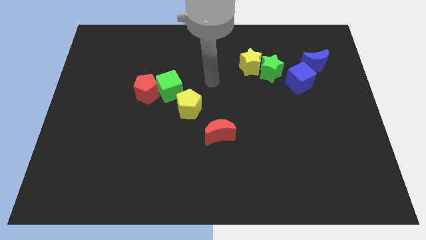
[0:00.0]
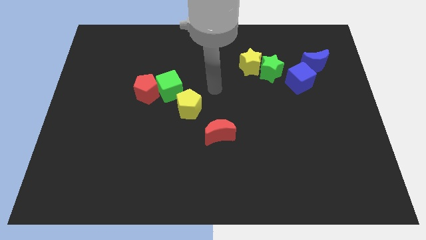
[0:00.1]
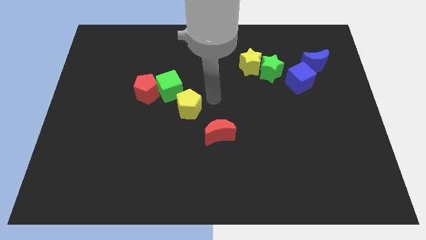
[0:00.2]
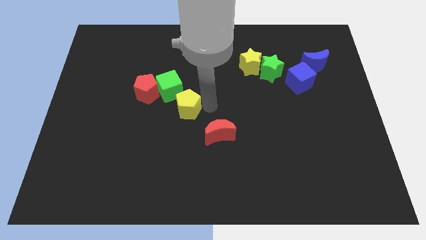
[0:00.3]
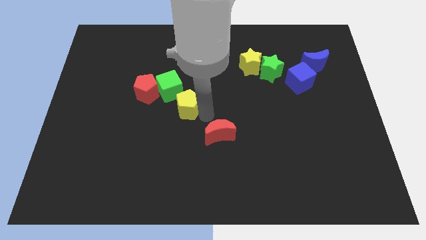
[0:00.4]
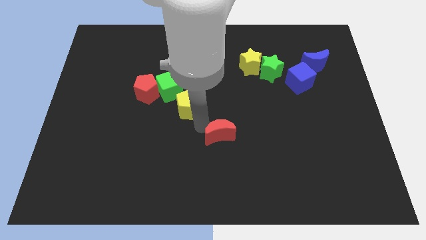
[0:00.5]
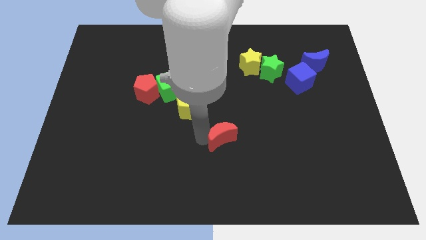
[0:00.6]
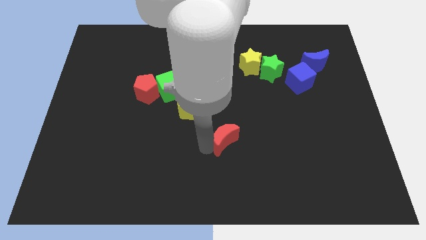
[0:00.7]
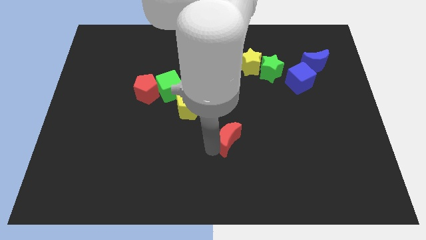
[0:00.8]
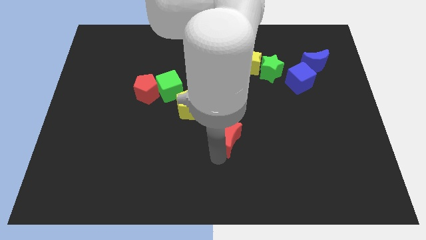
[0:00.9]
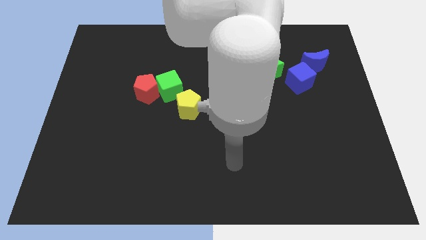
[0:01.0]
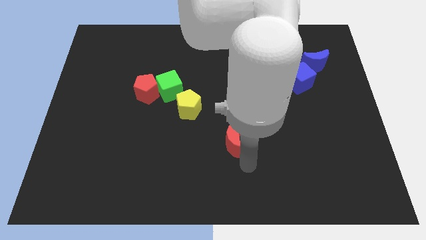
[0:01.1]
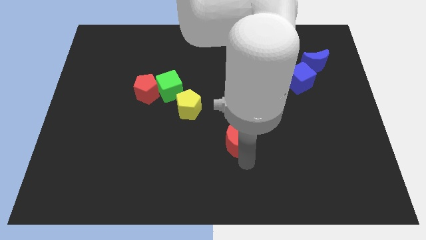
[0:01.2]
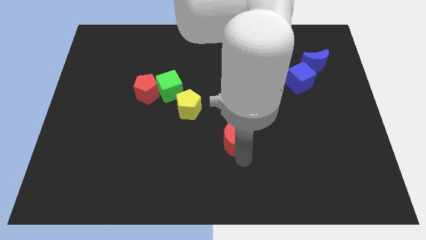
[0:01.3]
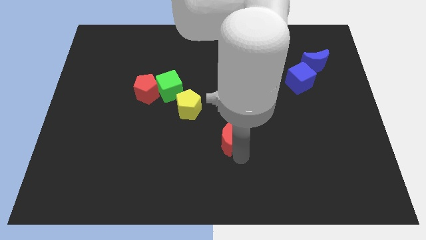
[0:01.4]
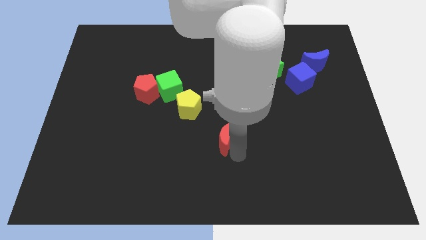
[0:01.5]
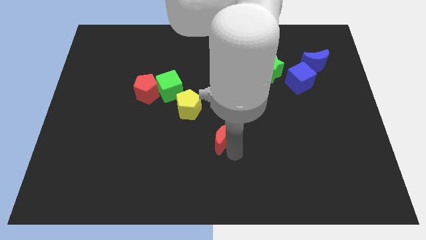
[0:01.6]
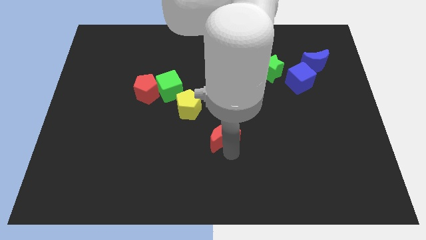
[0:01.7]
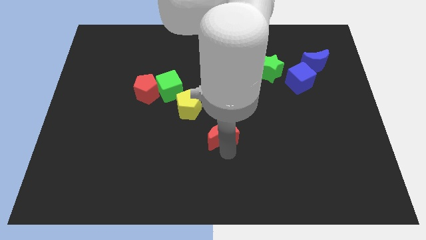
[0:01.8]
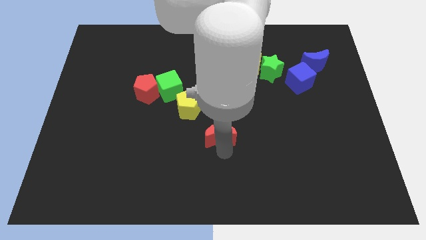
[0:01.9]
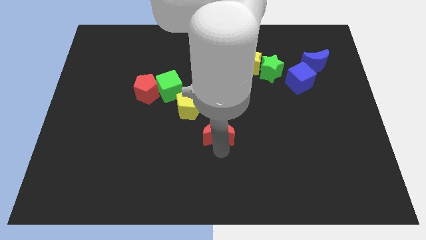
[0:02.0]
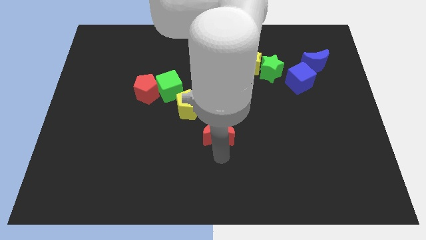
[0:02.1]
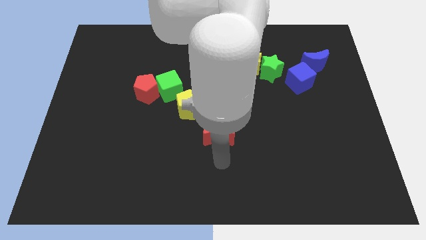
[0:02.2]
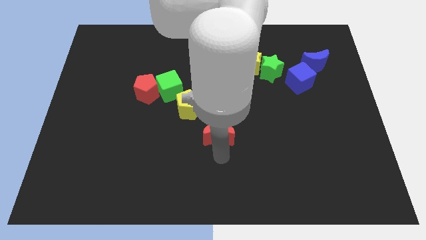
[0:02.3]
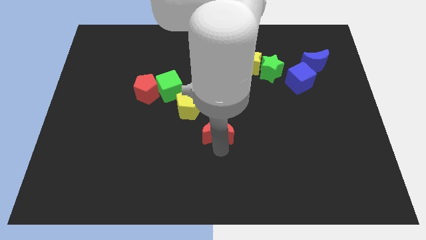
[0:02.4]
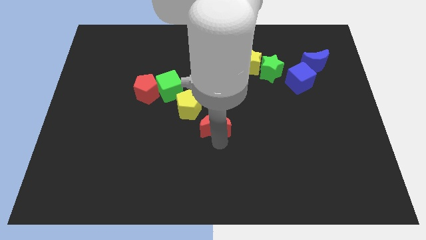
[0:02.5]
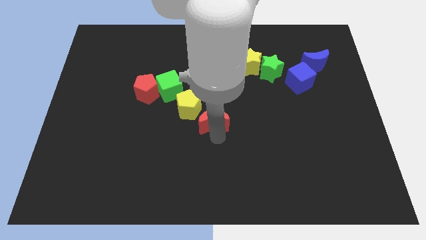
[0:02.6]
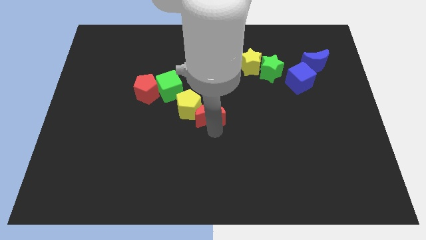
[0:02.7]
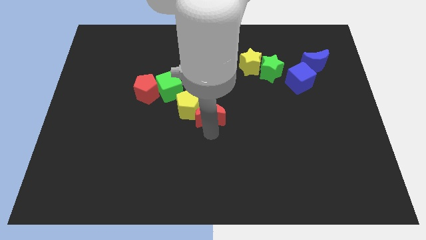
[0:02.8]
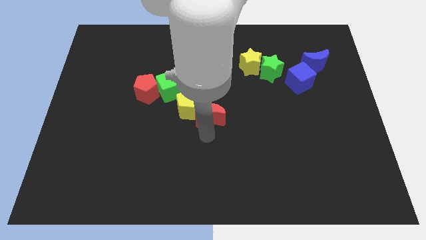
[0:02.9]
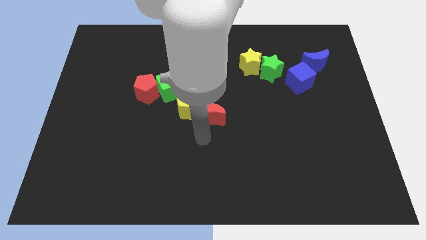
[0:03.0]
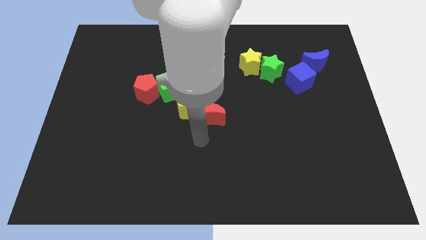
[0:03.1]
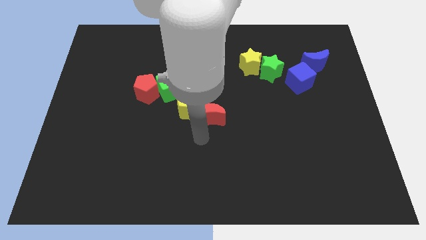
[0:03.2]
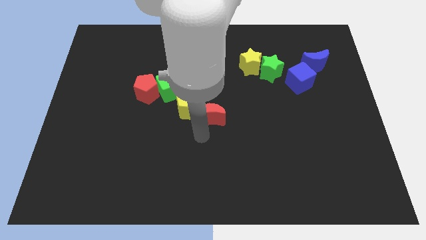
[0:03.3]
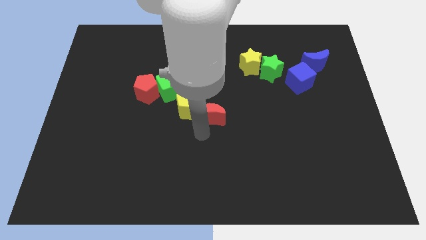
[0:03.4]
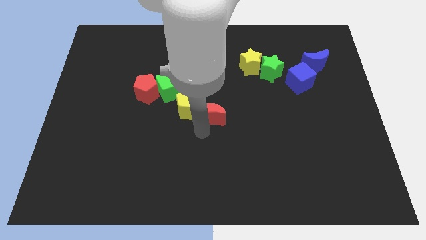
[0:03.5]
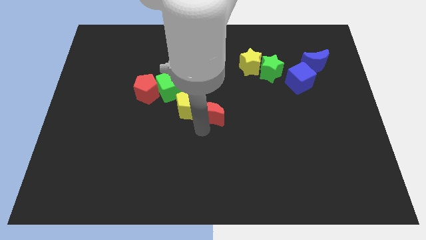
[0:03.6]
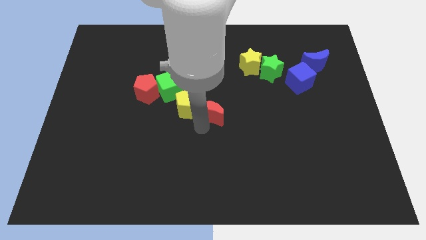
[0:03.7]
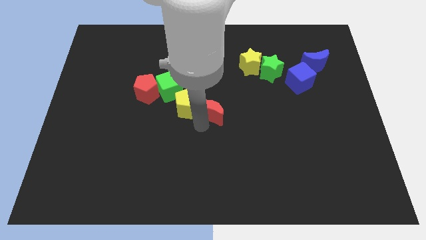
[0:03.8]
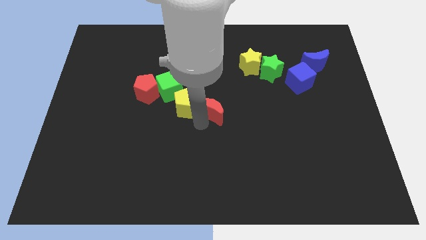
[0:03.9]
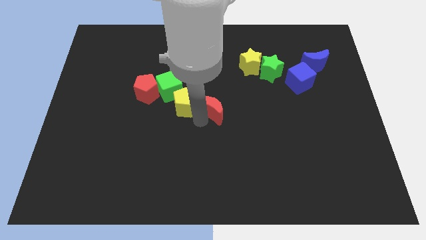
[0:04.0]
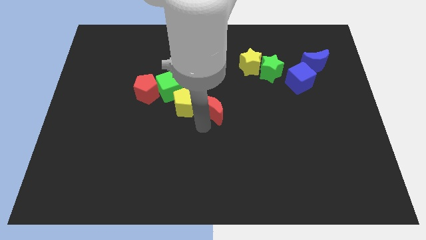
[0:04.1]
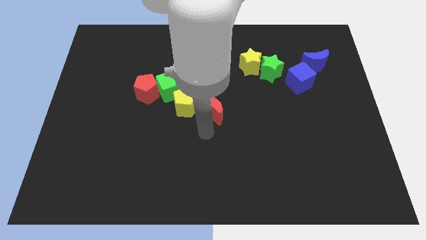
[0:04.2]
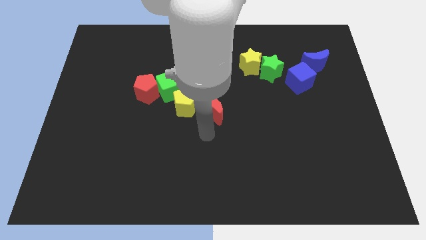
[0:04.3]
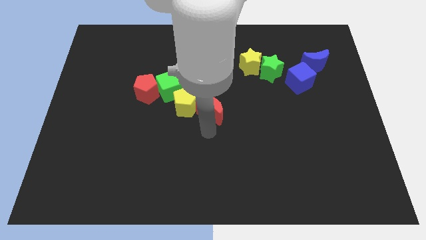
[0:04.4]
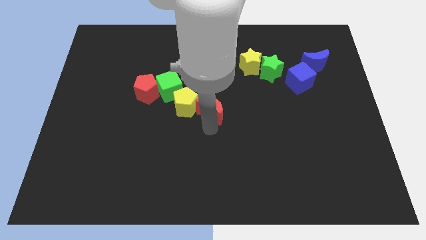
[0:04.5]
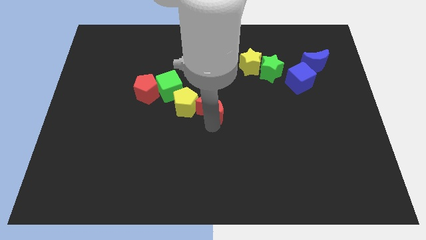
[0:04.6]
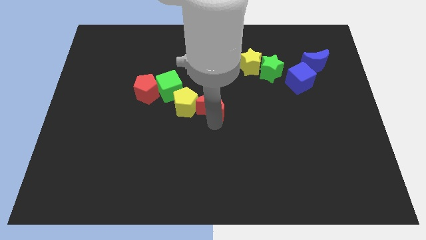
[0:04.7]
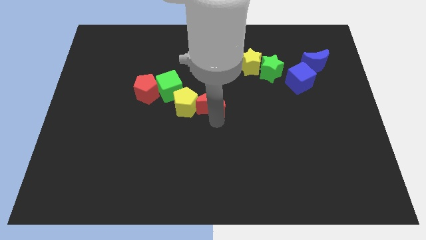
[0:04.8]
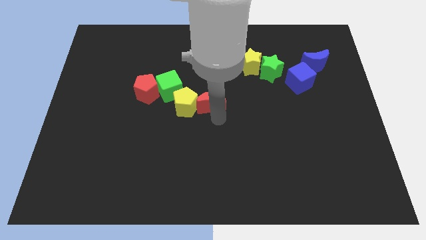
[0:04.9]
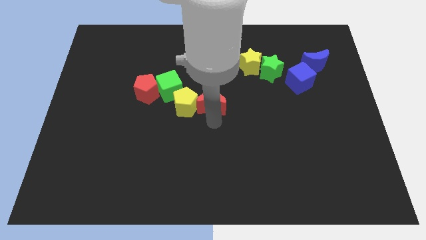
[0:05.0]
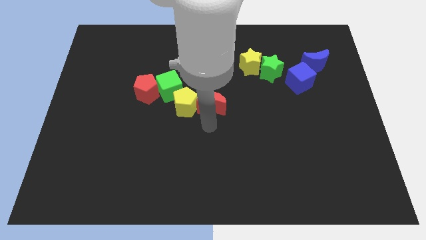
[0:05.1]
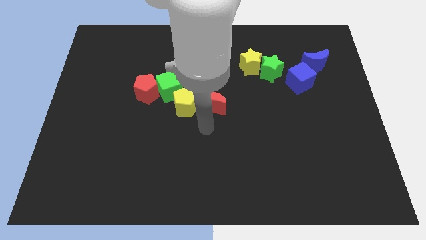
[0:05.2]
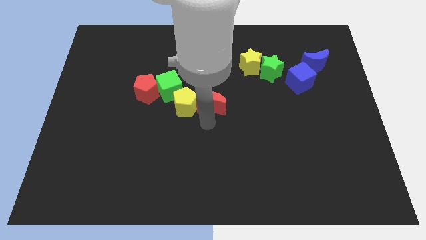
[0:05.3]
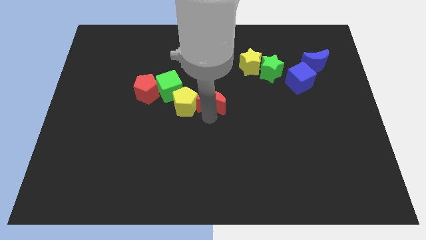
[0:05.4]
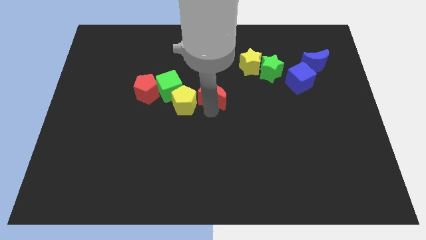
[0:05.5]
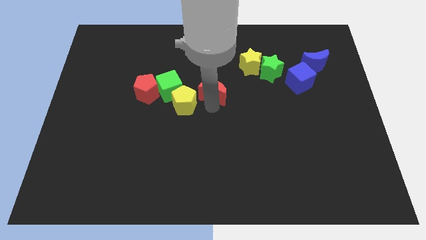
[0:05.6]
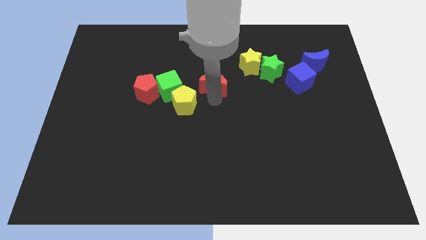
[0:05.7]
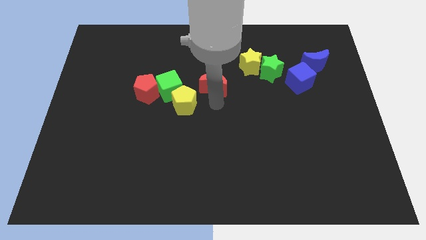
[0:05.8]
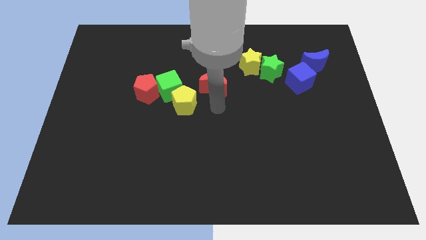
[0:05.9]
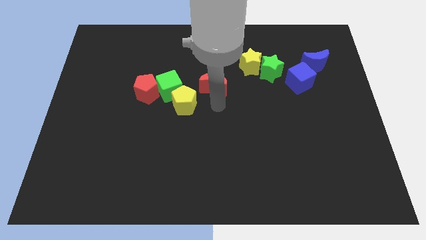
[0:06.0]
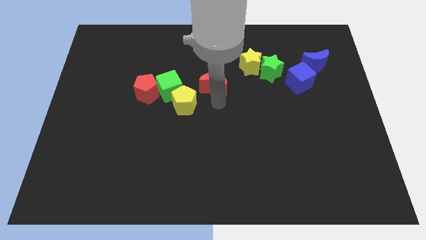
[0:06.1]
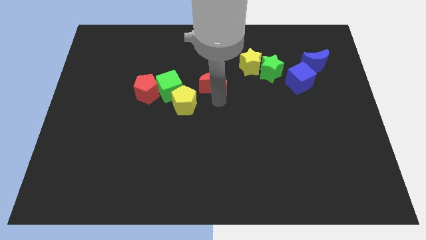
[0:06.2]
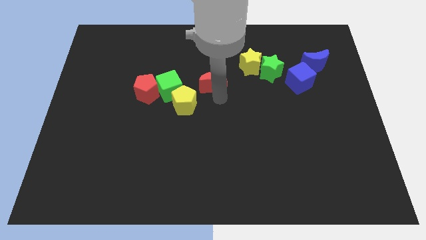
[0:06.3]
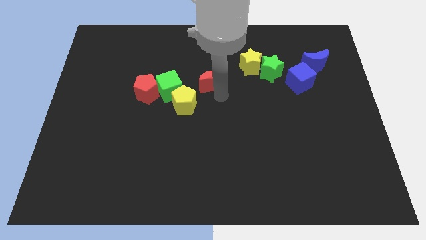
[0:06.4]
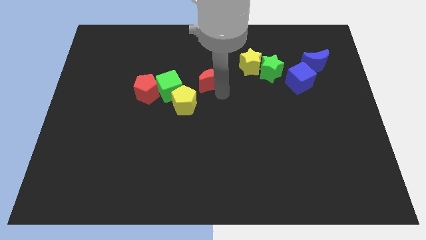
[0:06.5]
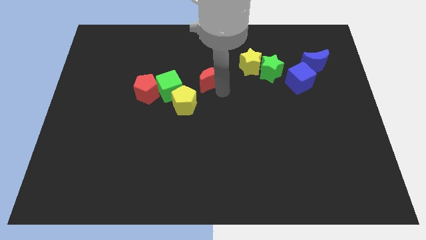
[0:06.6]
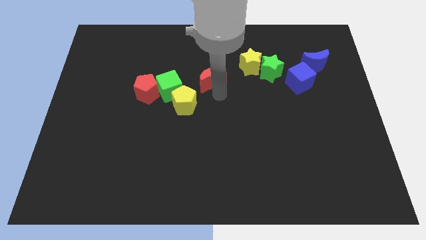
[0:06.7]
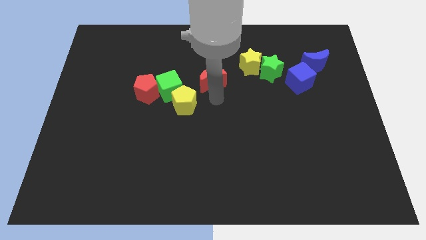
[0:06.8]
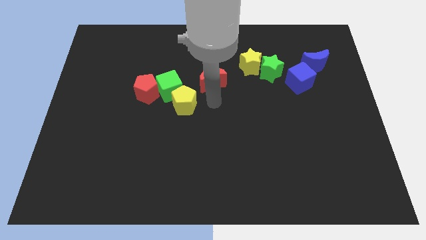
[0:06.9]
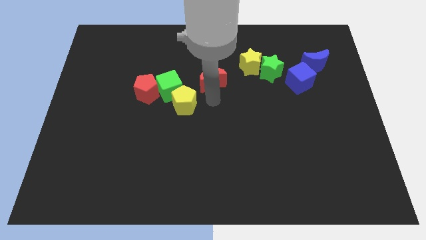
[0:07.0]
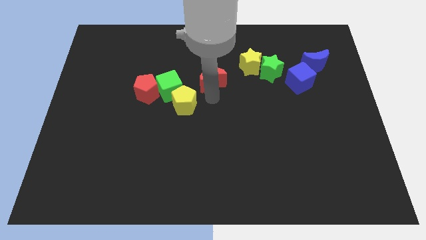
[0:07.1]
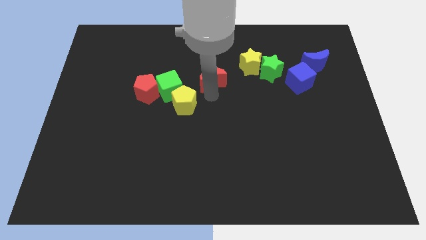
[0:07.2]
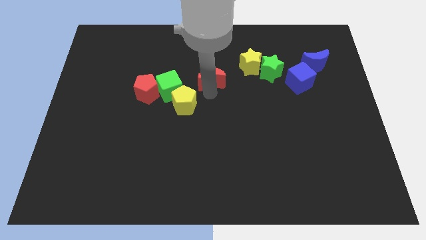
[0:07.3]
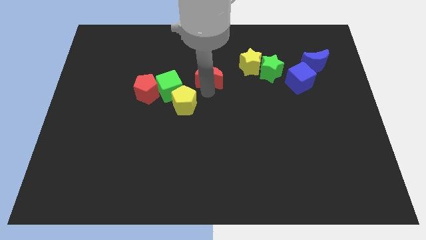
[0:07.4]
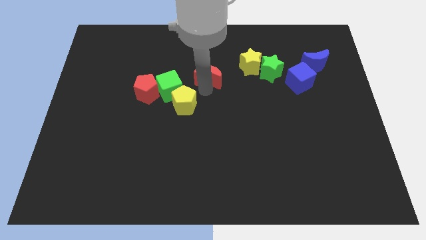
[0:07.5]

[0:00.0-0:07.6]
push the red moon to the left side of the yellow star

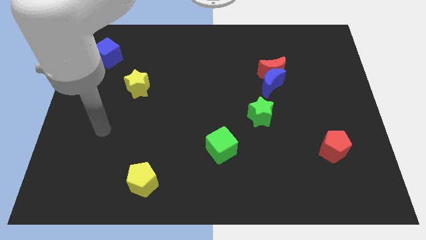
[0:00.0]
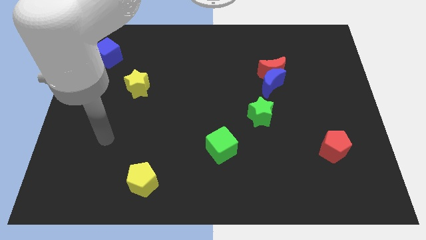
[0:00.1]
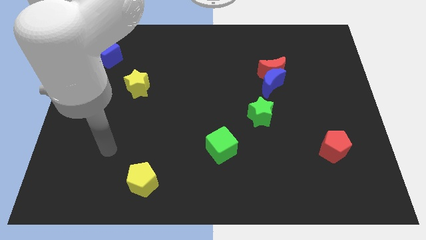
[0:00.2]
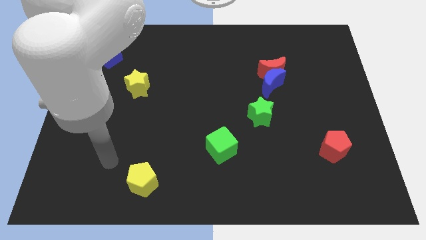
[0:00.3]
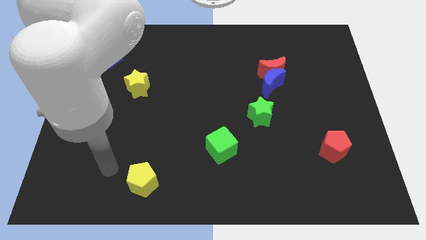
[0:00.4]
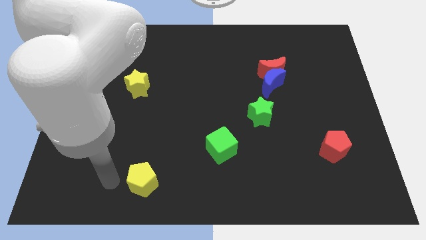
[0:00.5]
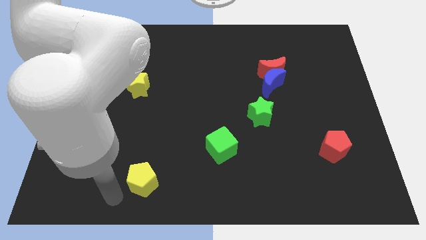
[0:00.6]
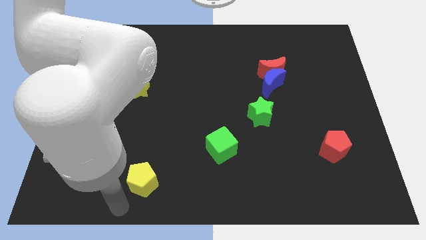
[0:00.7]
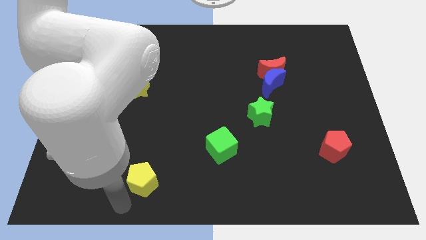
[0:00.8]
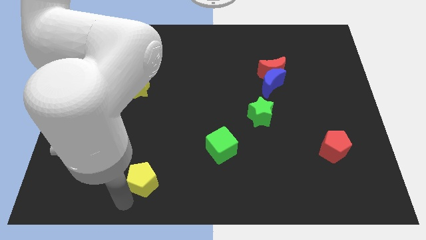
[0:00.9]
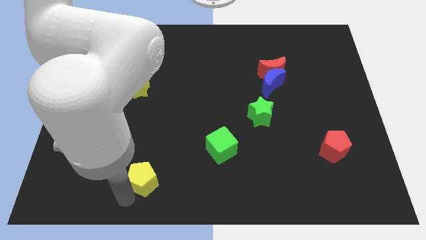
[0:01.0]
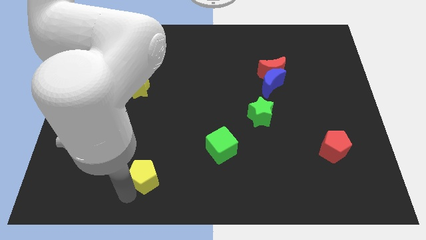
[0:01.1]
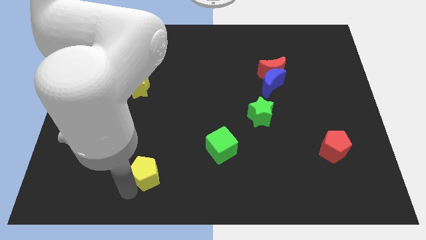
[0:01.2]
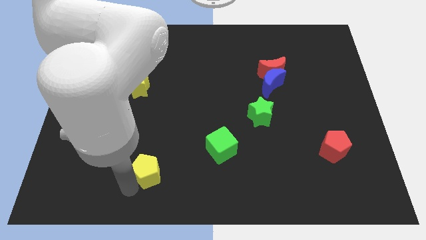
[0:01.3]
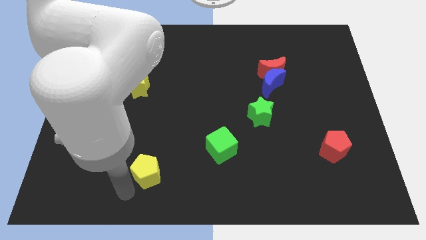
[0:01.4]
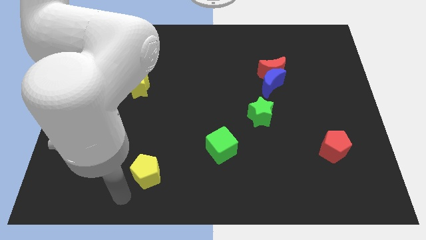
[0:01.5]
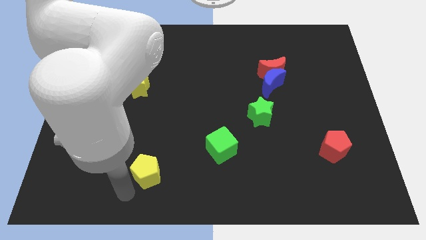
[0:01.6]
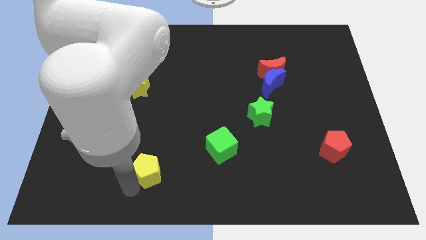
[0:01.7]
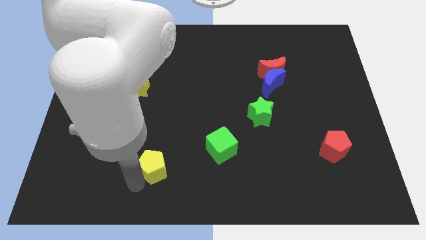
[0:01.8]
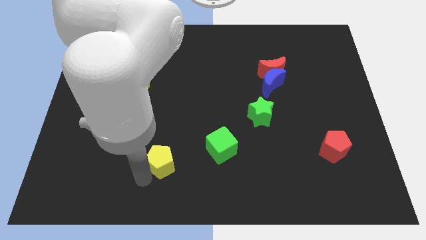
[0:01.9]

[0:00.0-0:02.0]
put the yellow pentagon just left of the green cube
